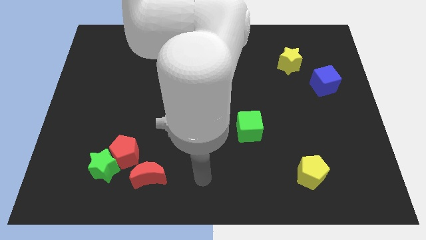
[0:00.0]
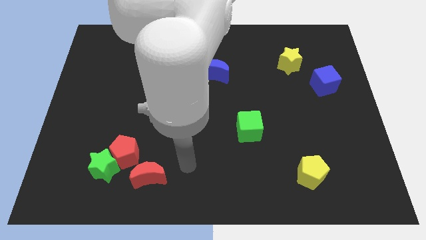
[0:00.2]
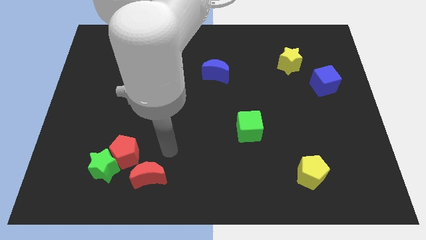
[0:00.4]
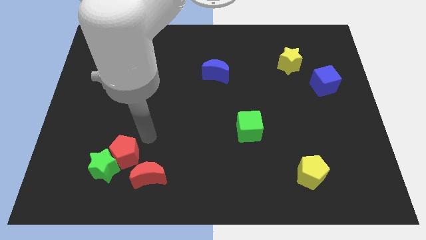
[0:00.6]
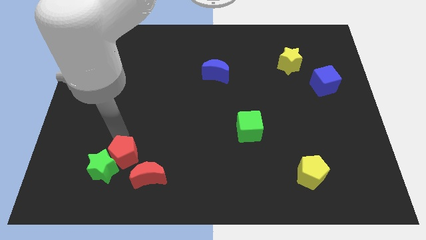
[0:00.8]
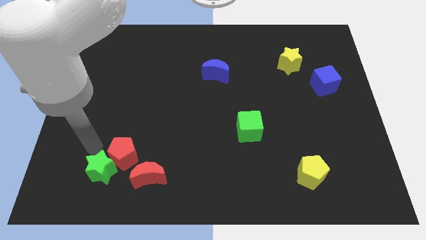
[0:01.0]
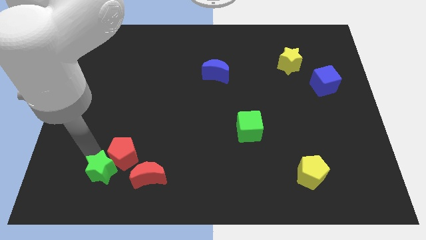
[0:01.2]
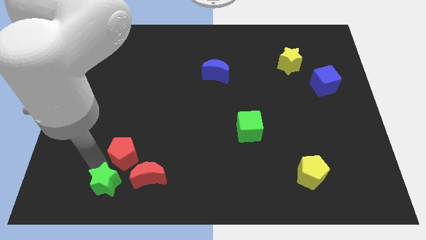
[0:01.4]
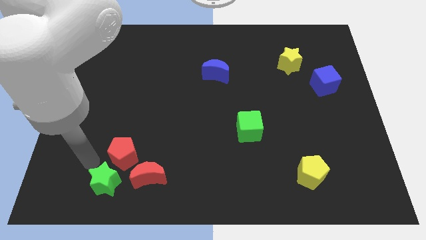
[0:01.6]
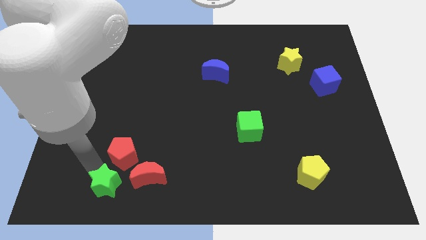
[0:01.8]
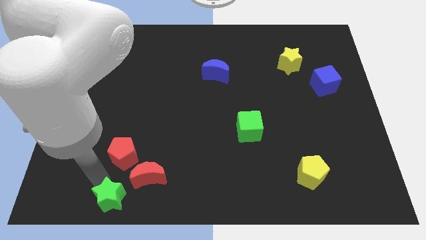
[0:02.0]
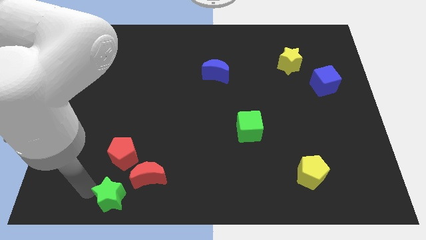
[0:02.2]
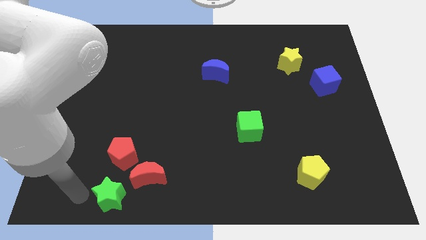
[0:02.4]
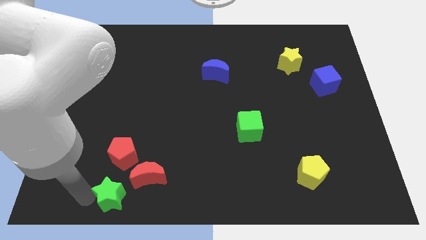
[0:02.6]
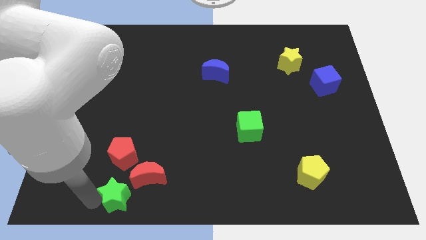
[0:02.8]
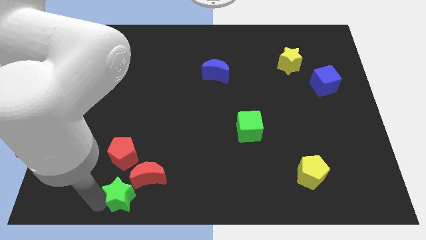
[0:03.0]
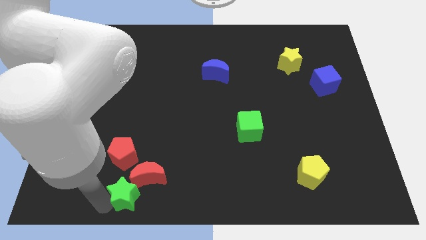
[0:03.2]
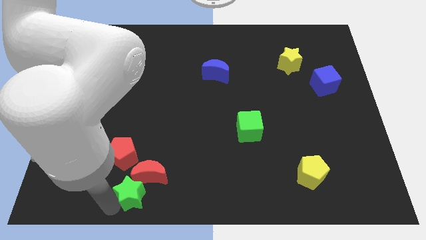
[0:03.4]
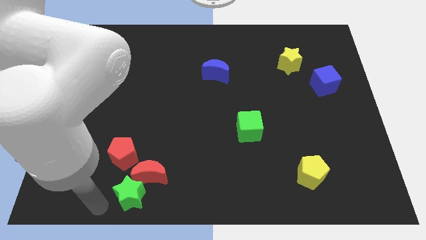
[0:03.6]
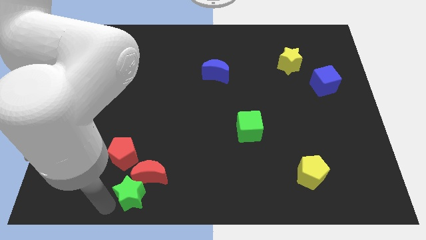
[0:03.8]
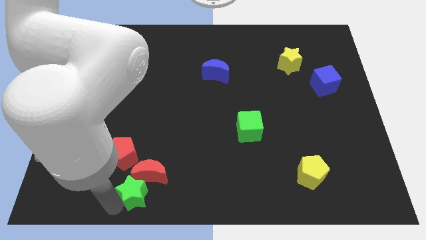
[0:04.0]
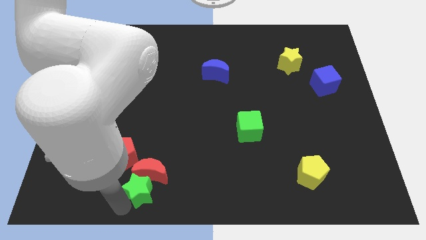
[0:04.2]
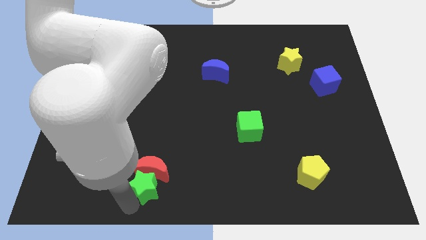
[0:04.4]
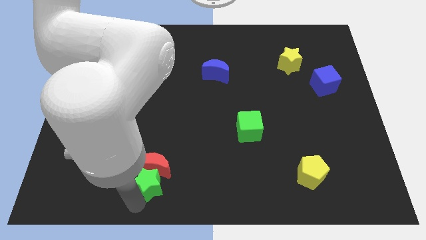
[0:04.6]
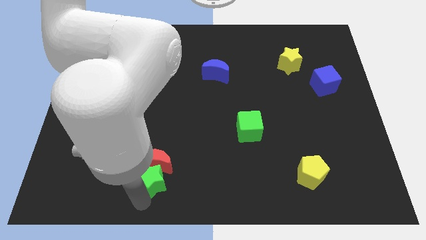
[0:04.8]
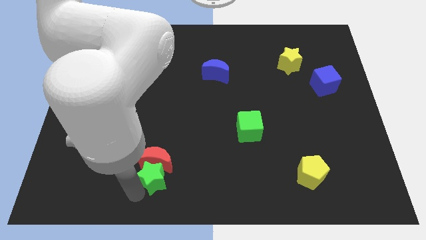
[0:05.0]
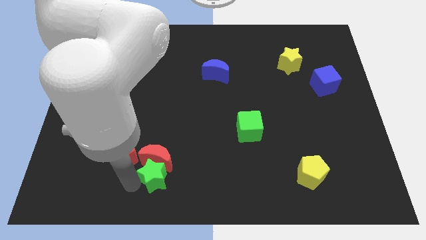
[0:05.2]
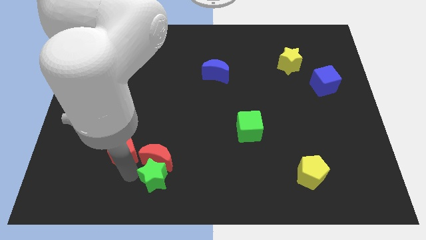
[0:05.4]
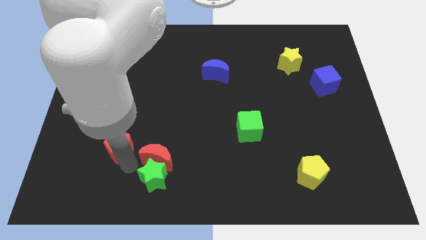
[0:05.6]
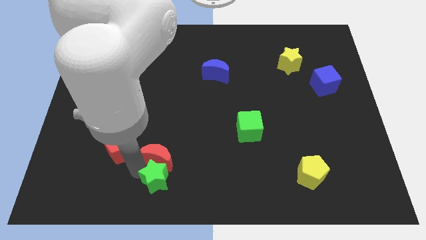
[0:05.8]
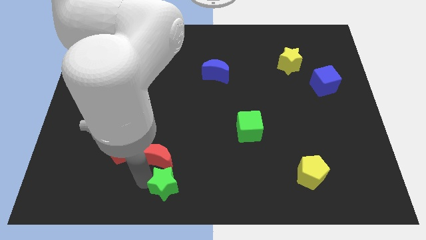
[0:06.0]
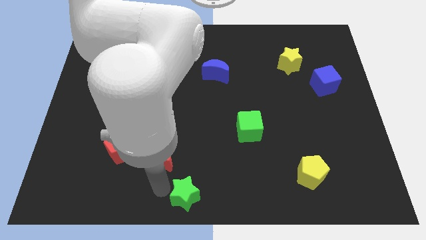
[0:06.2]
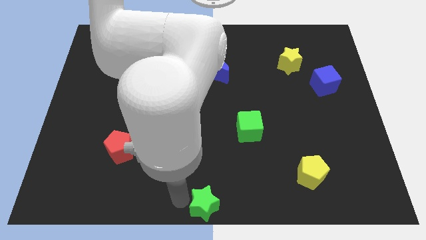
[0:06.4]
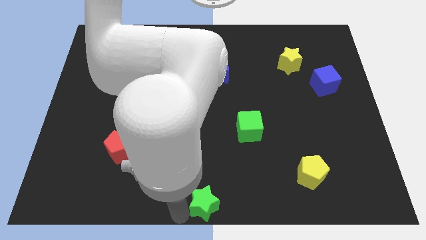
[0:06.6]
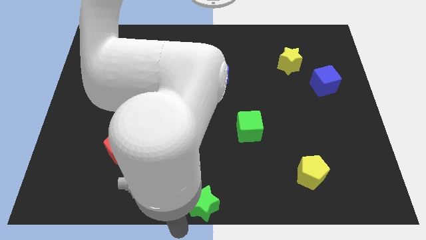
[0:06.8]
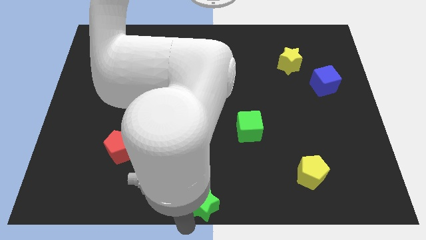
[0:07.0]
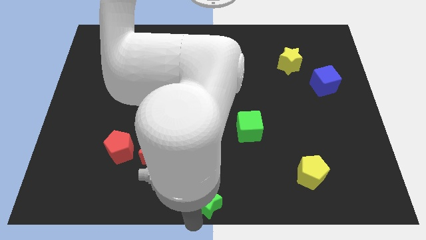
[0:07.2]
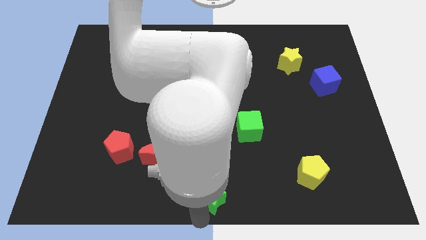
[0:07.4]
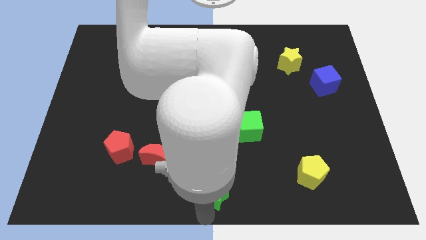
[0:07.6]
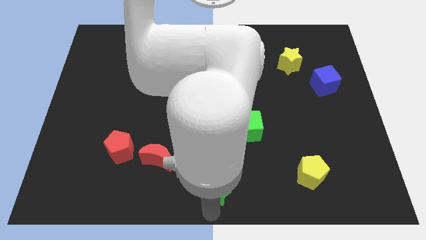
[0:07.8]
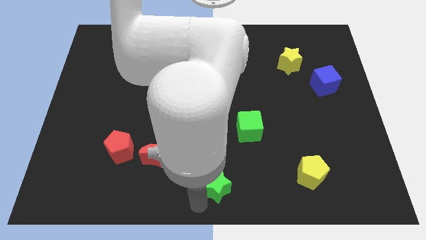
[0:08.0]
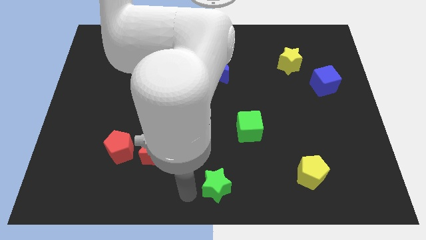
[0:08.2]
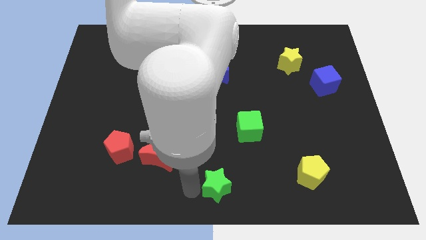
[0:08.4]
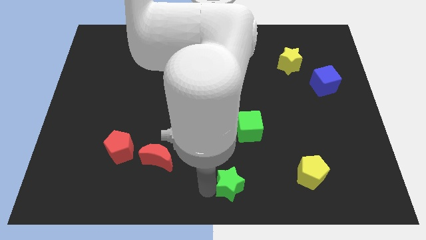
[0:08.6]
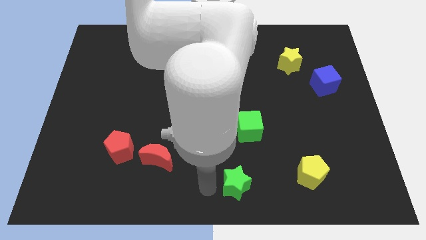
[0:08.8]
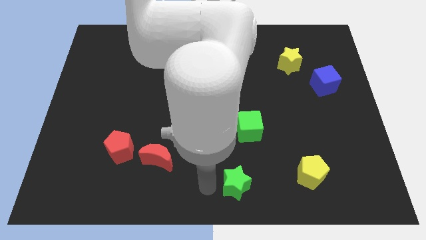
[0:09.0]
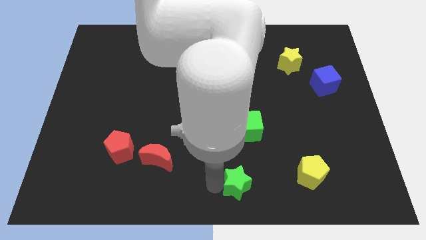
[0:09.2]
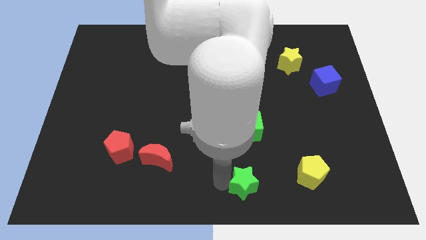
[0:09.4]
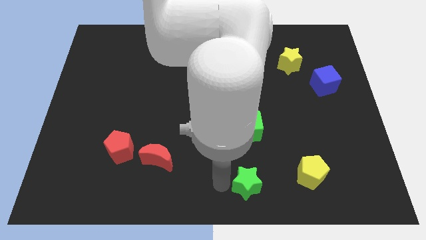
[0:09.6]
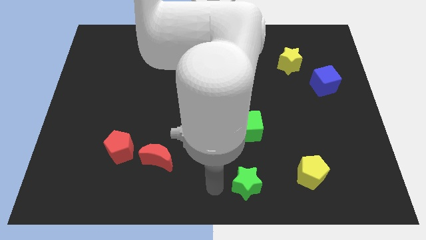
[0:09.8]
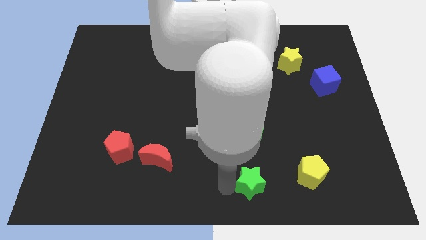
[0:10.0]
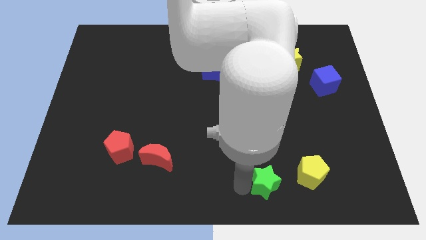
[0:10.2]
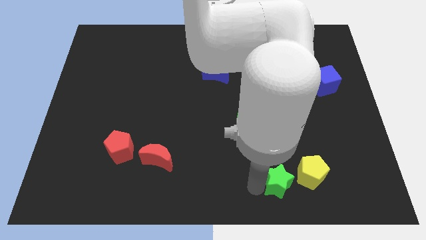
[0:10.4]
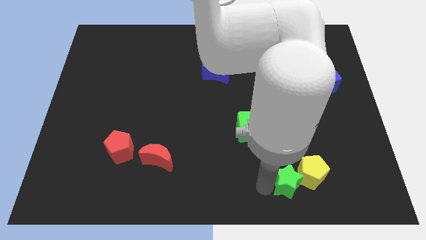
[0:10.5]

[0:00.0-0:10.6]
move the green star close to the yellow pentagon

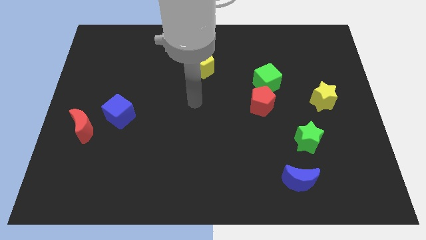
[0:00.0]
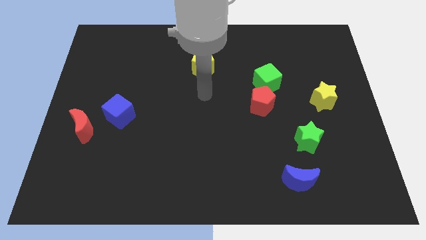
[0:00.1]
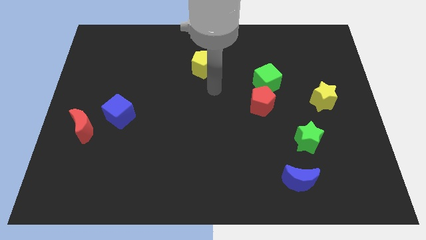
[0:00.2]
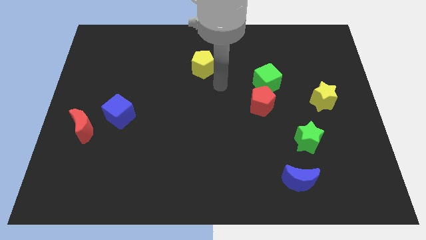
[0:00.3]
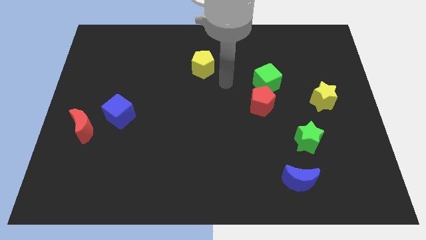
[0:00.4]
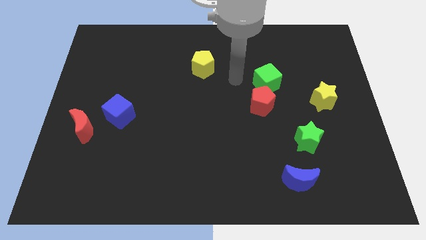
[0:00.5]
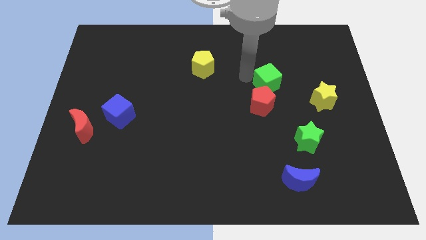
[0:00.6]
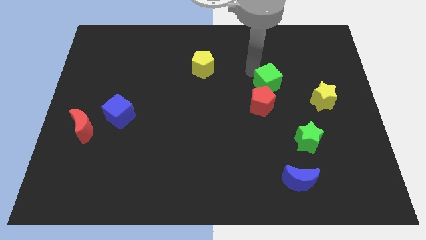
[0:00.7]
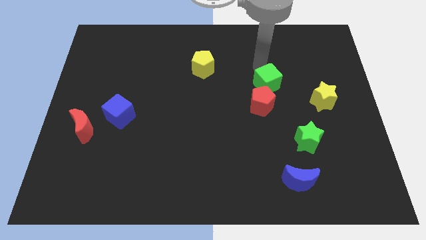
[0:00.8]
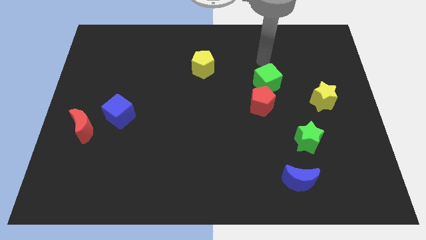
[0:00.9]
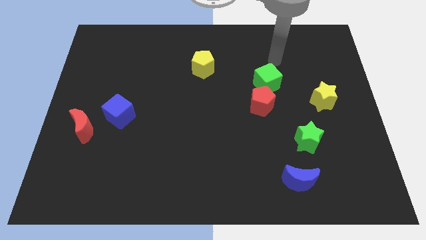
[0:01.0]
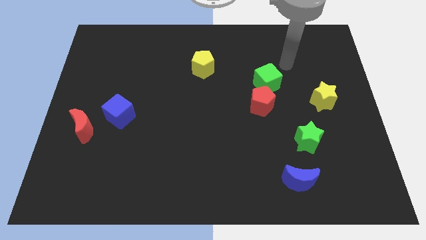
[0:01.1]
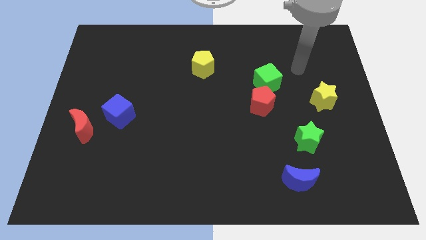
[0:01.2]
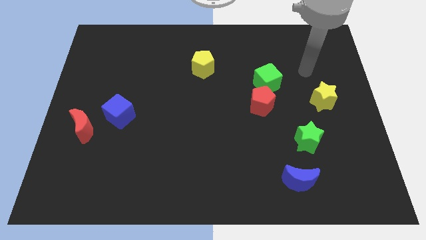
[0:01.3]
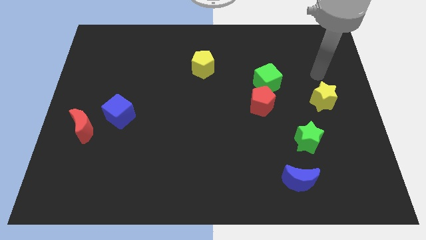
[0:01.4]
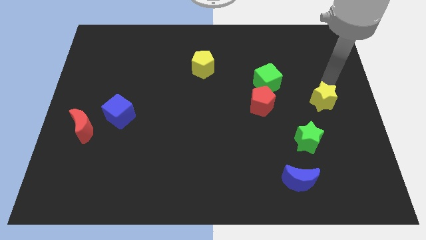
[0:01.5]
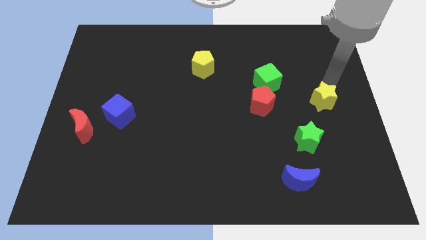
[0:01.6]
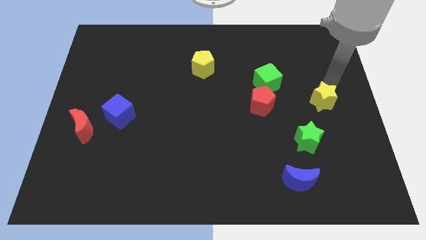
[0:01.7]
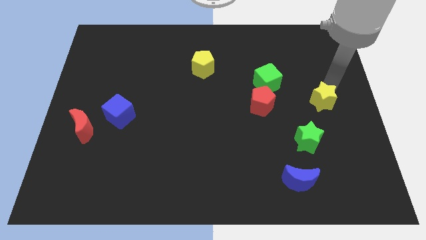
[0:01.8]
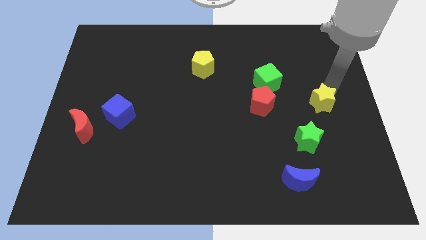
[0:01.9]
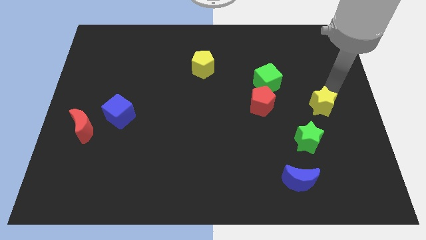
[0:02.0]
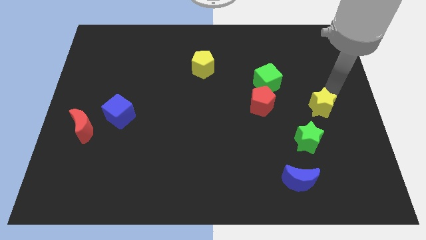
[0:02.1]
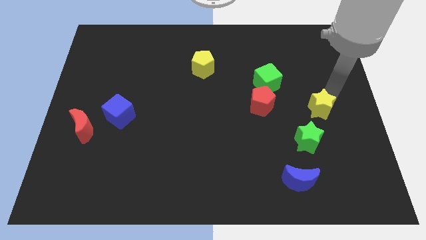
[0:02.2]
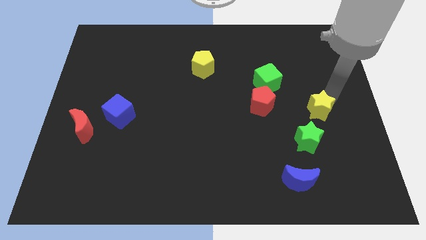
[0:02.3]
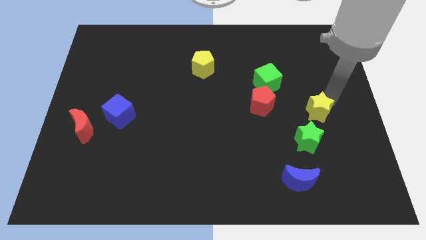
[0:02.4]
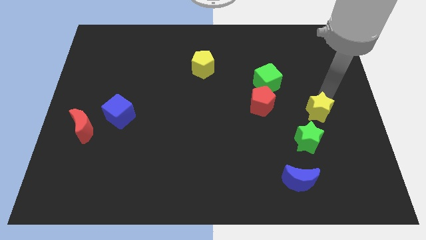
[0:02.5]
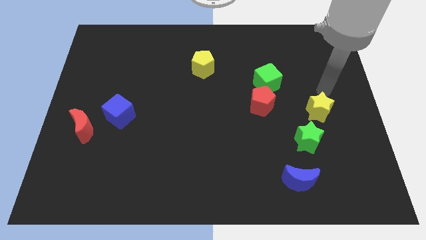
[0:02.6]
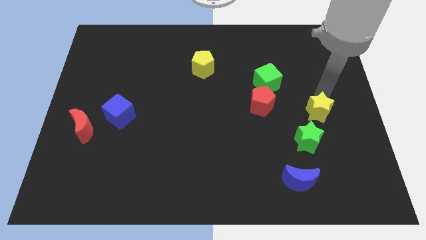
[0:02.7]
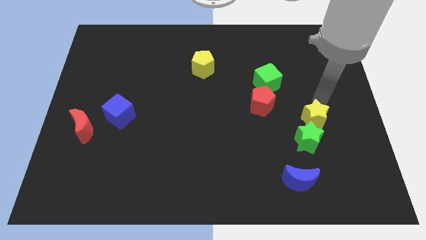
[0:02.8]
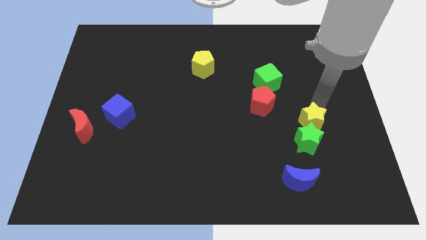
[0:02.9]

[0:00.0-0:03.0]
push the yellow star close to the green star
